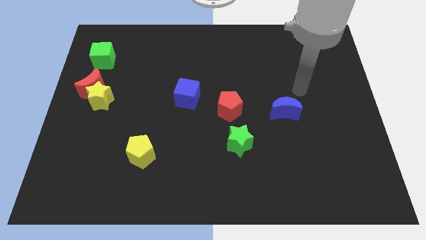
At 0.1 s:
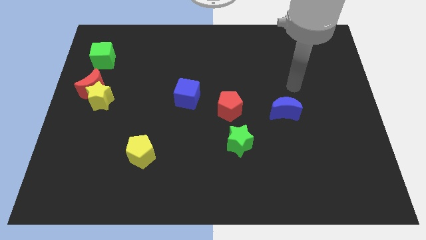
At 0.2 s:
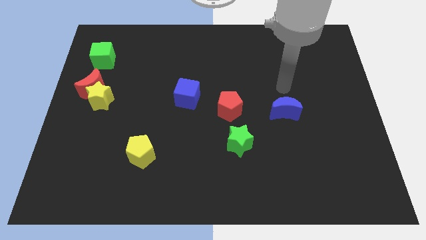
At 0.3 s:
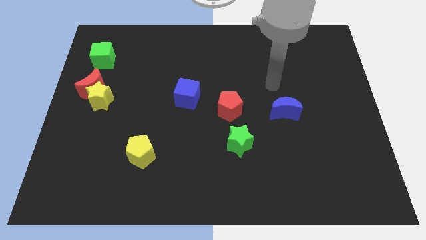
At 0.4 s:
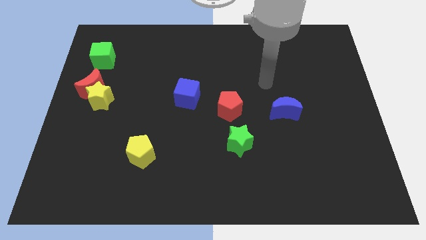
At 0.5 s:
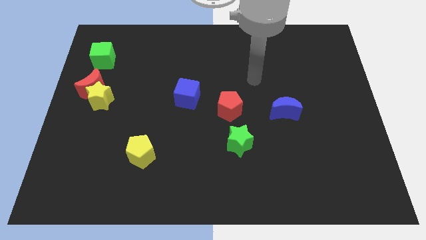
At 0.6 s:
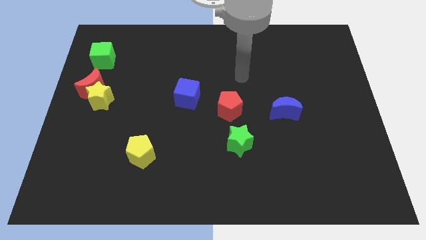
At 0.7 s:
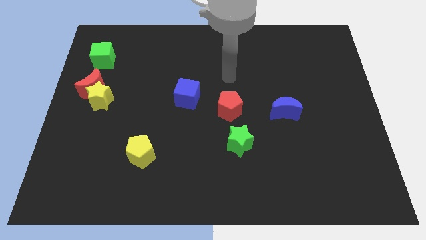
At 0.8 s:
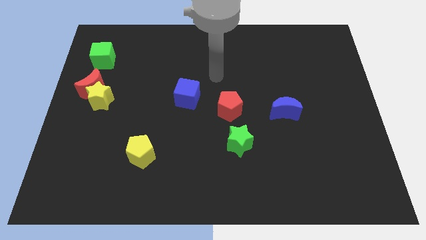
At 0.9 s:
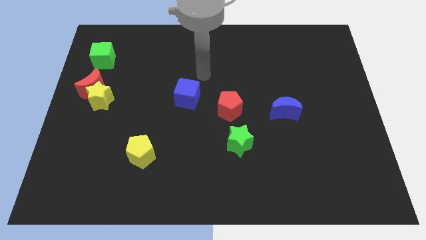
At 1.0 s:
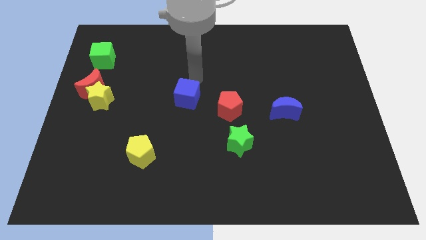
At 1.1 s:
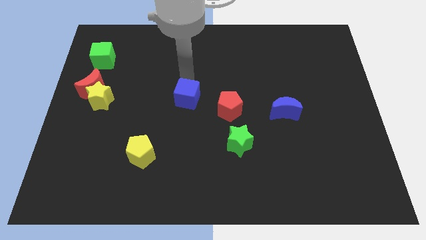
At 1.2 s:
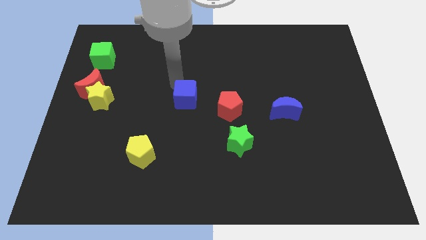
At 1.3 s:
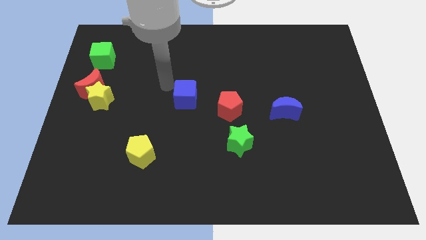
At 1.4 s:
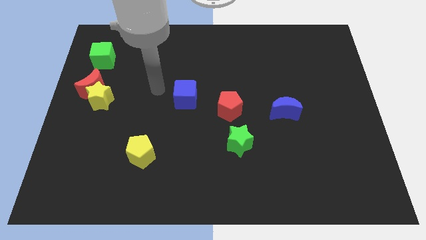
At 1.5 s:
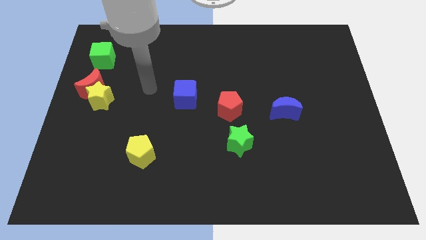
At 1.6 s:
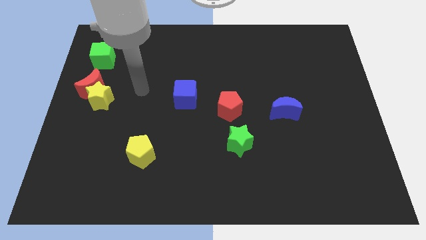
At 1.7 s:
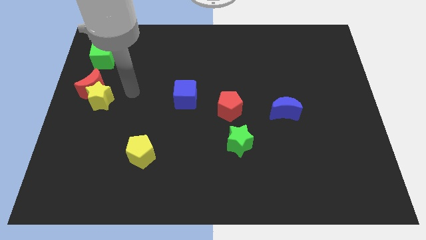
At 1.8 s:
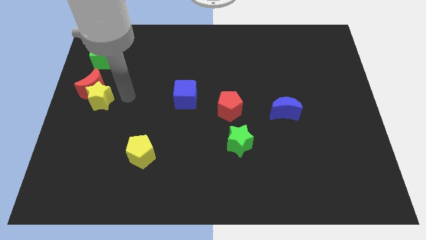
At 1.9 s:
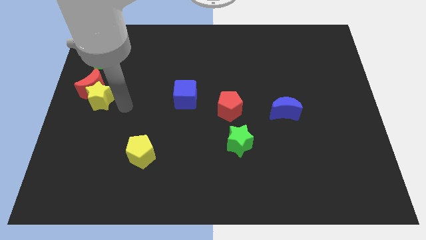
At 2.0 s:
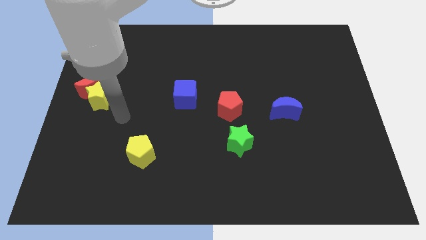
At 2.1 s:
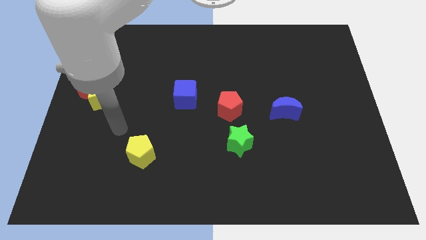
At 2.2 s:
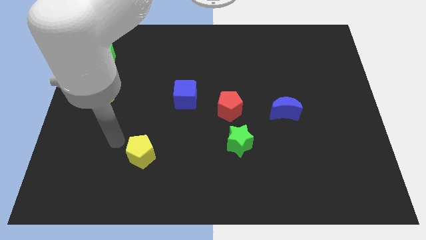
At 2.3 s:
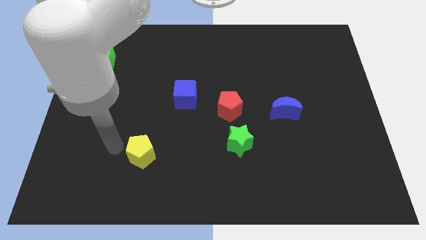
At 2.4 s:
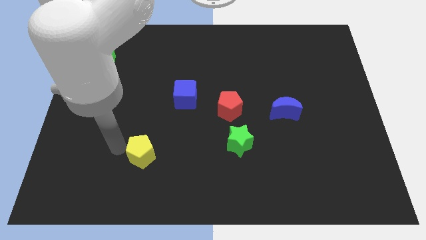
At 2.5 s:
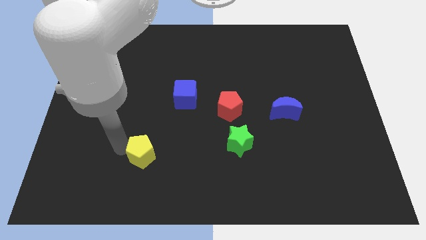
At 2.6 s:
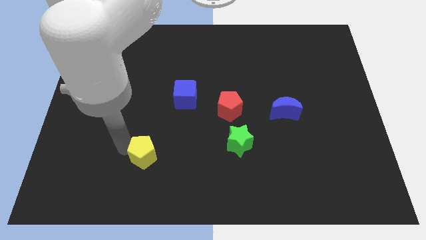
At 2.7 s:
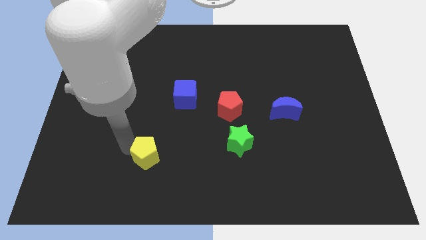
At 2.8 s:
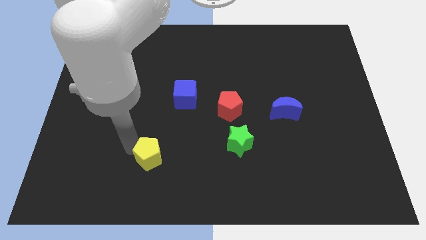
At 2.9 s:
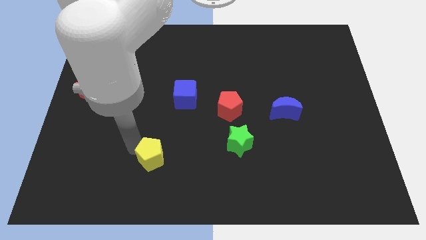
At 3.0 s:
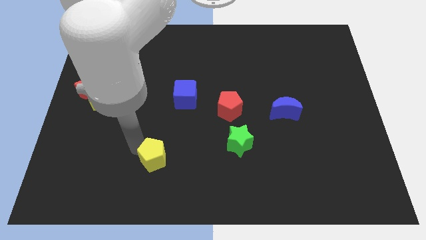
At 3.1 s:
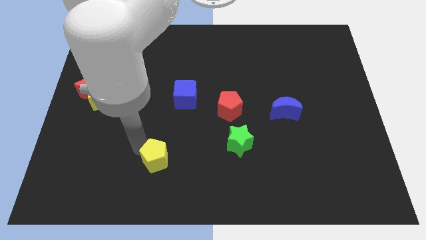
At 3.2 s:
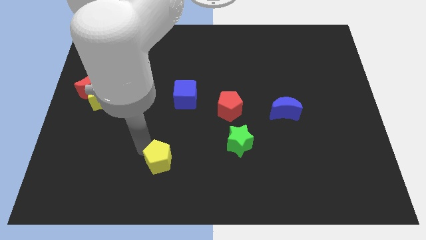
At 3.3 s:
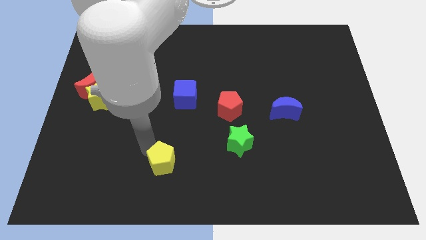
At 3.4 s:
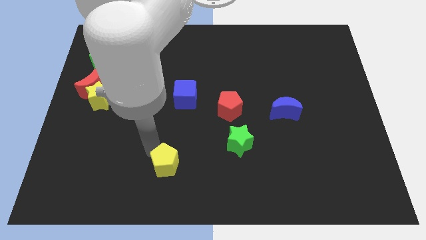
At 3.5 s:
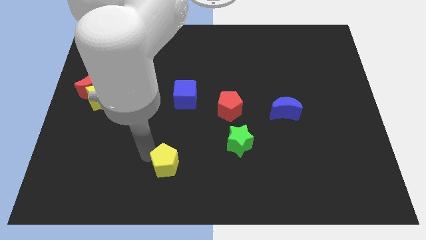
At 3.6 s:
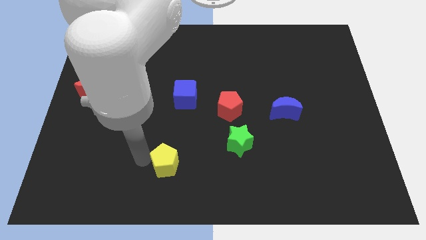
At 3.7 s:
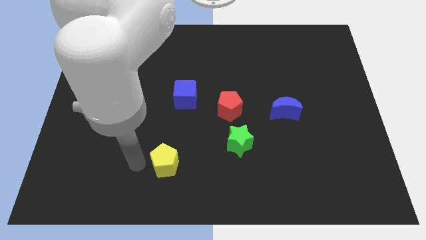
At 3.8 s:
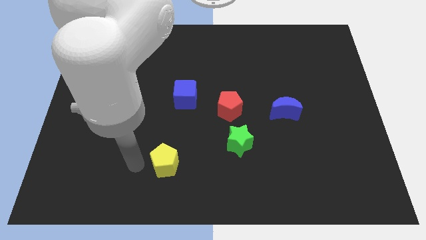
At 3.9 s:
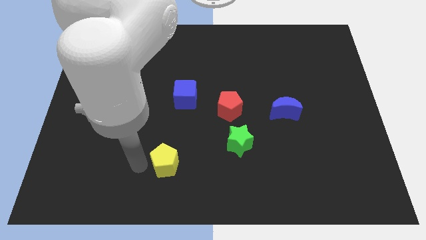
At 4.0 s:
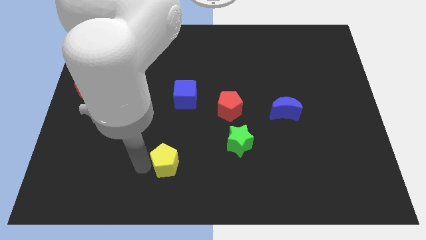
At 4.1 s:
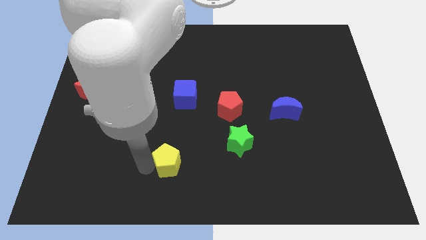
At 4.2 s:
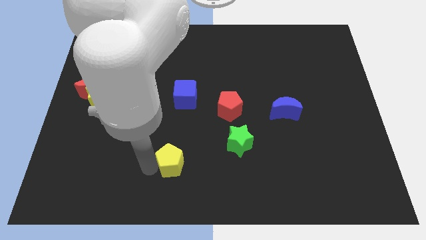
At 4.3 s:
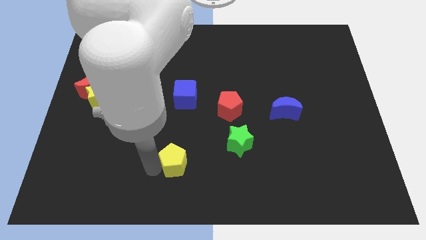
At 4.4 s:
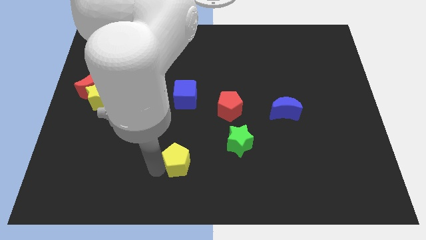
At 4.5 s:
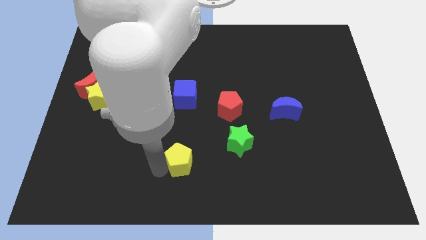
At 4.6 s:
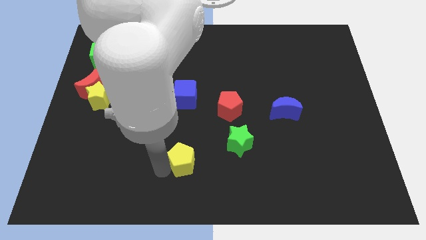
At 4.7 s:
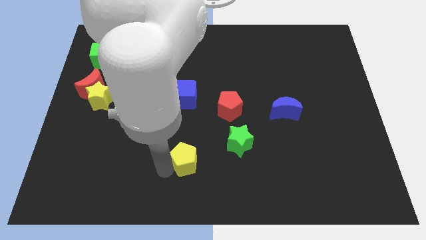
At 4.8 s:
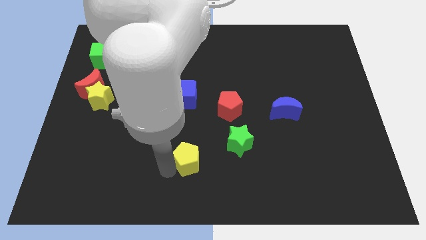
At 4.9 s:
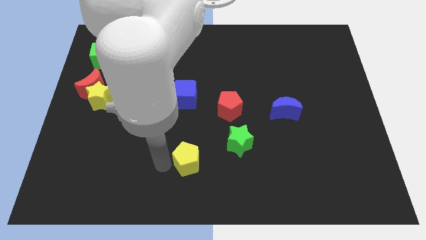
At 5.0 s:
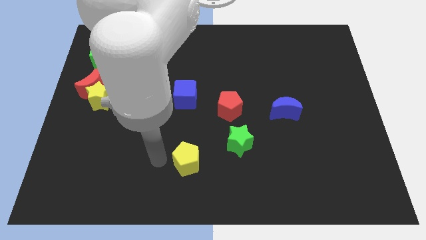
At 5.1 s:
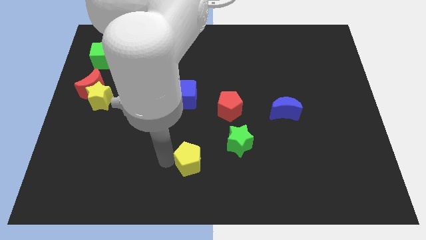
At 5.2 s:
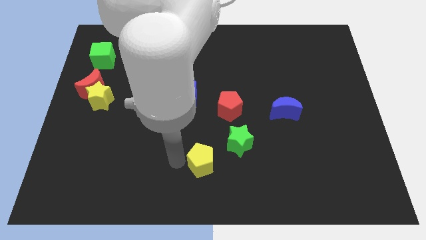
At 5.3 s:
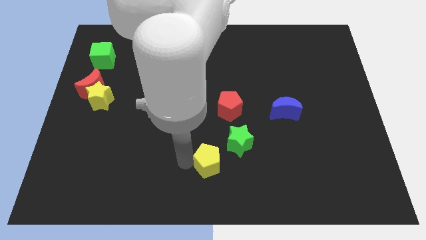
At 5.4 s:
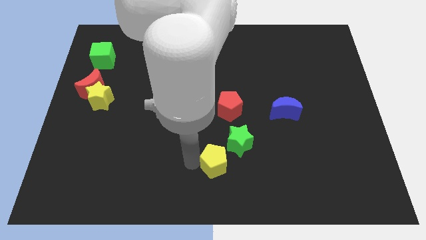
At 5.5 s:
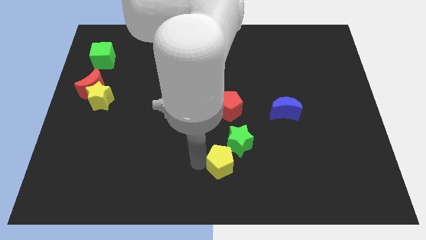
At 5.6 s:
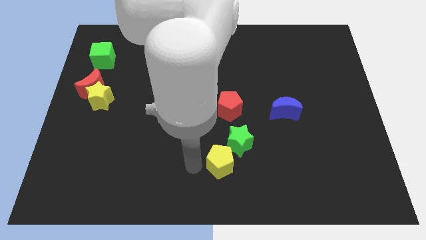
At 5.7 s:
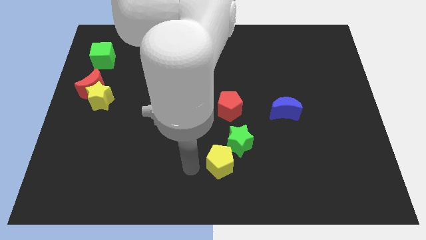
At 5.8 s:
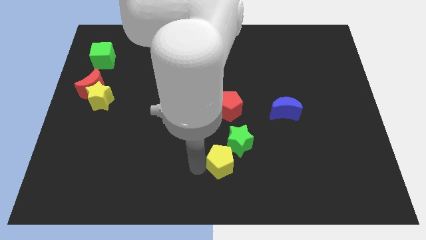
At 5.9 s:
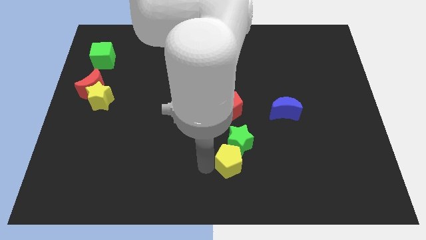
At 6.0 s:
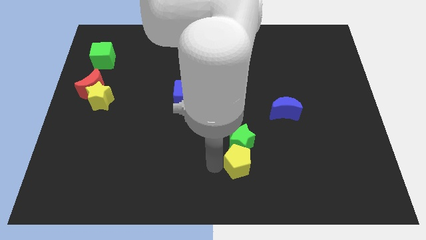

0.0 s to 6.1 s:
push the yellow pentagon to the right

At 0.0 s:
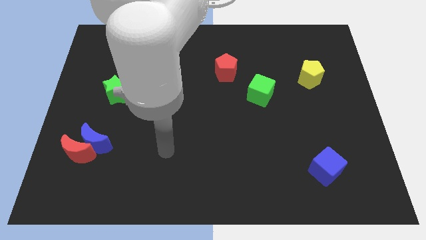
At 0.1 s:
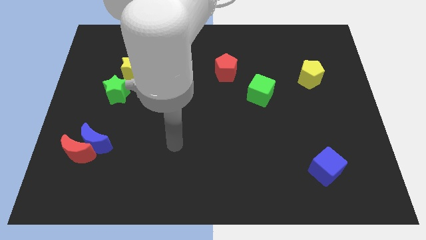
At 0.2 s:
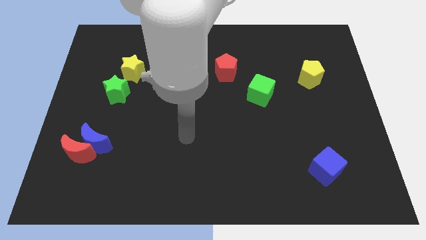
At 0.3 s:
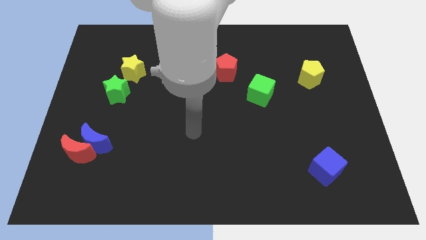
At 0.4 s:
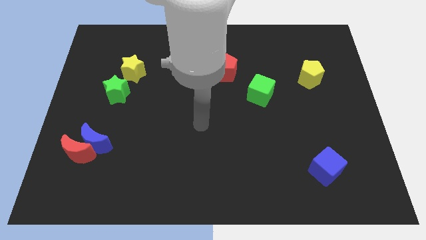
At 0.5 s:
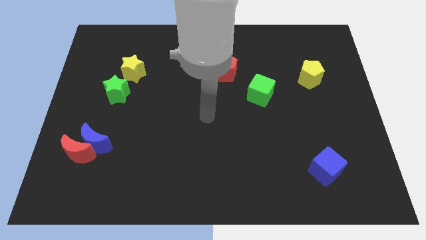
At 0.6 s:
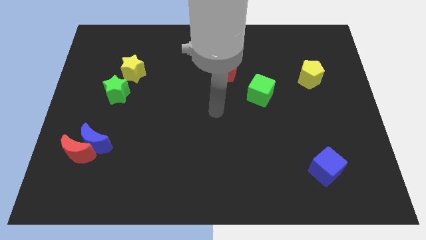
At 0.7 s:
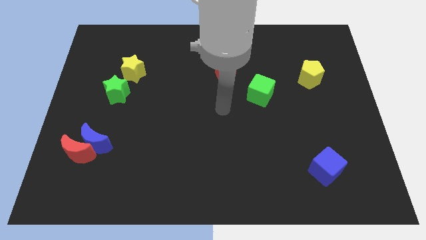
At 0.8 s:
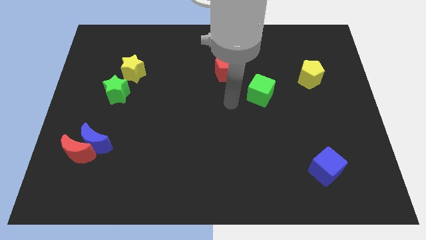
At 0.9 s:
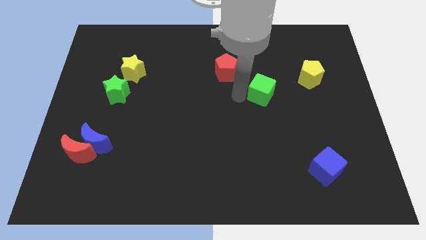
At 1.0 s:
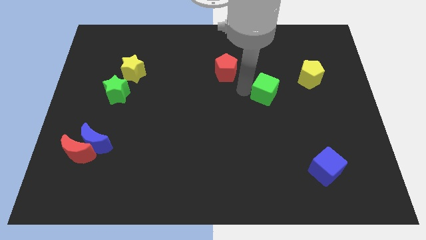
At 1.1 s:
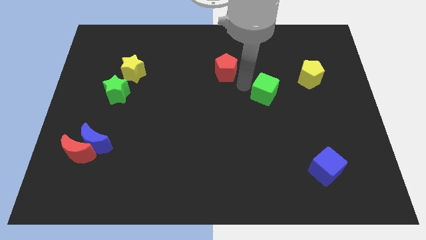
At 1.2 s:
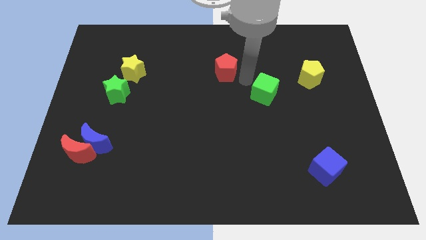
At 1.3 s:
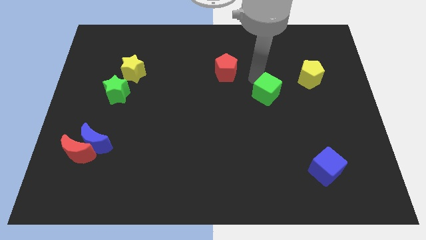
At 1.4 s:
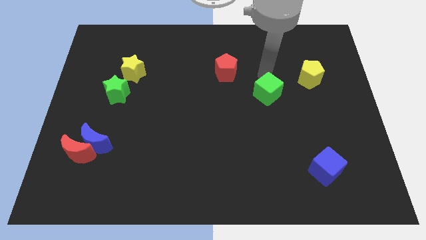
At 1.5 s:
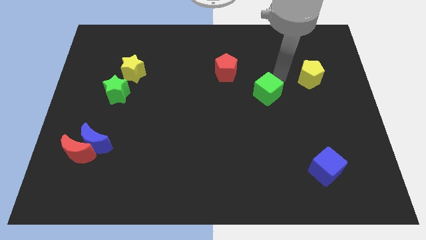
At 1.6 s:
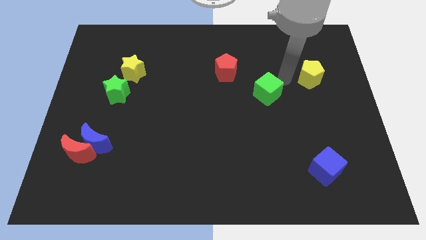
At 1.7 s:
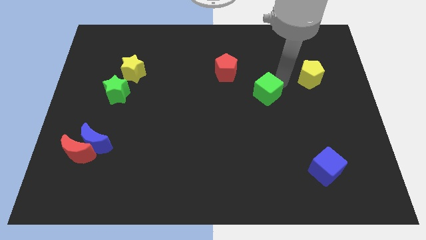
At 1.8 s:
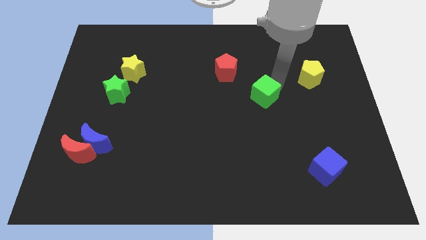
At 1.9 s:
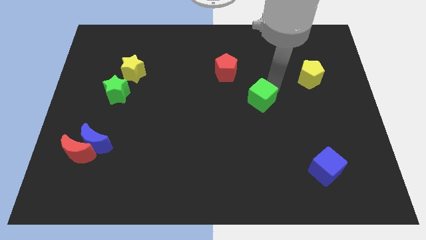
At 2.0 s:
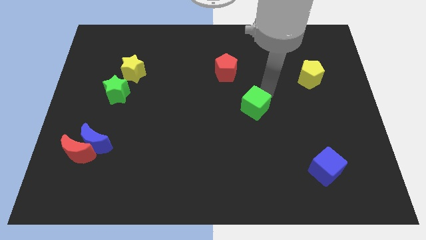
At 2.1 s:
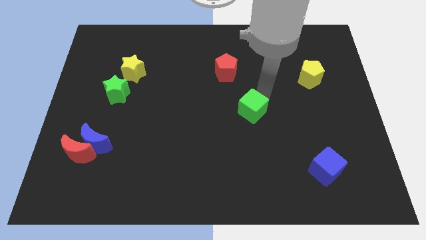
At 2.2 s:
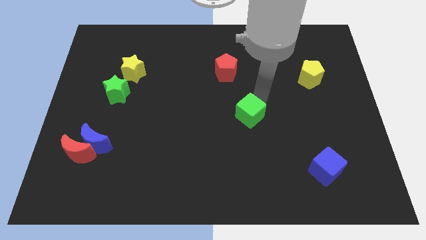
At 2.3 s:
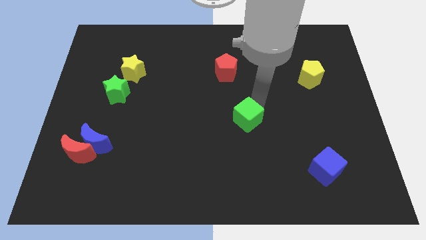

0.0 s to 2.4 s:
slide the green cube down and then to the left somewhat
